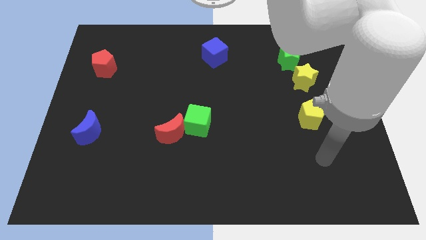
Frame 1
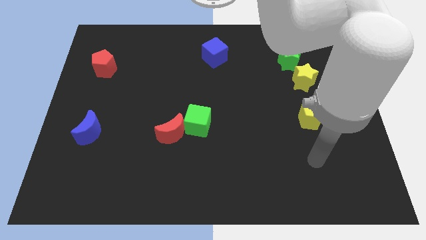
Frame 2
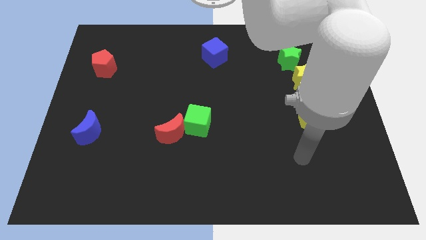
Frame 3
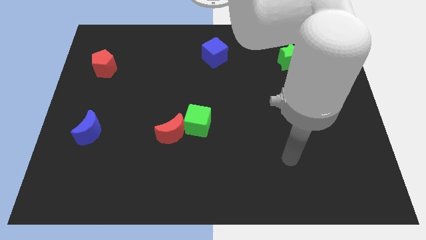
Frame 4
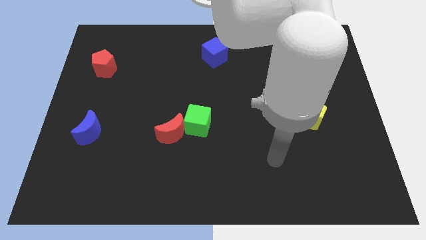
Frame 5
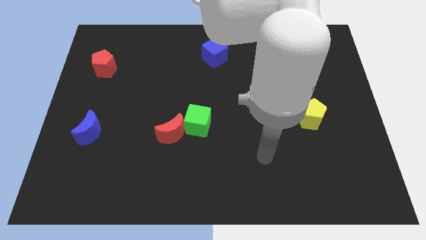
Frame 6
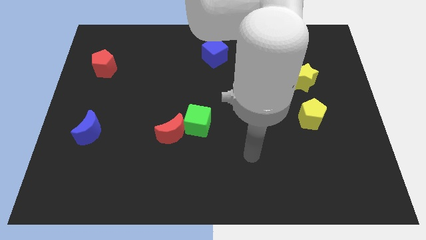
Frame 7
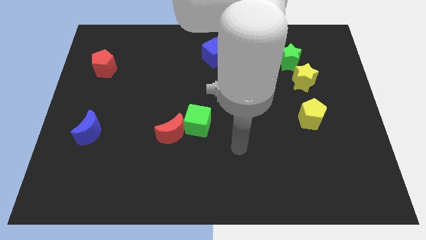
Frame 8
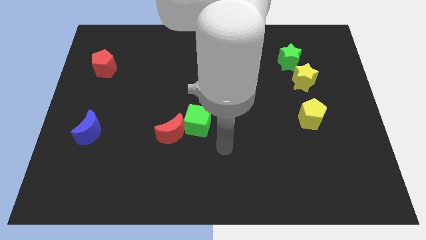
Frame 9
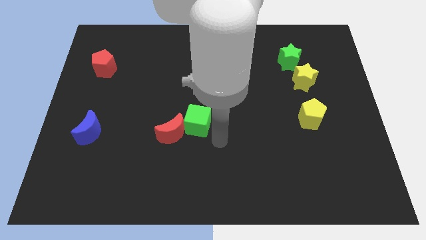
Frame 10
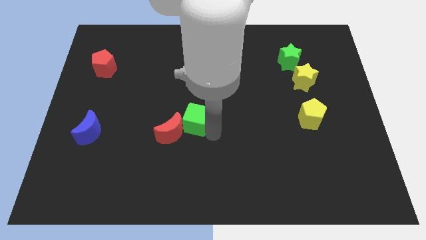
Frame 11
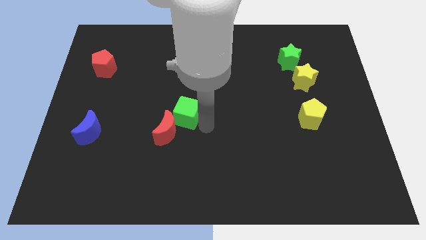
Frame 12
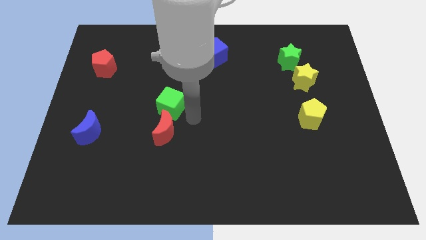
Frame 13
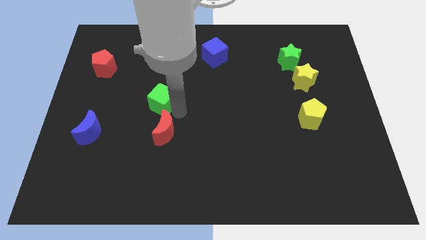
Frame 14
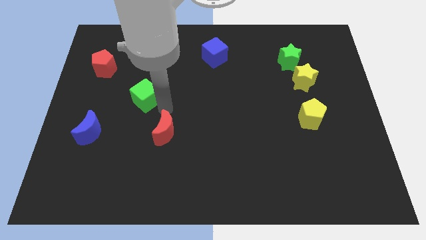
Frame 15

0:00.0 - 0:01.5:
move the red moon away from the green cube

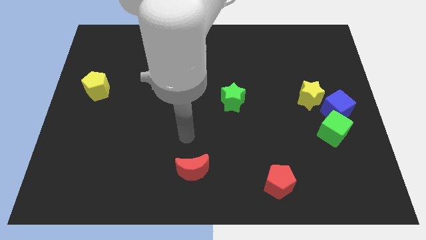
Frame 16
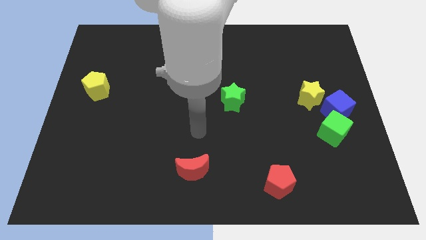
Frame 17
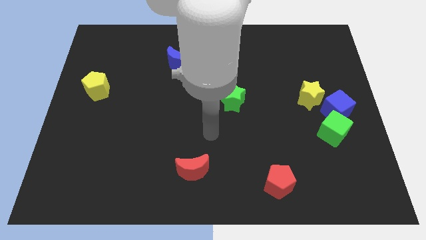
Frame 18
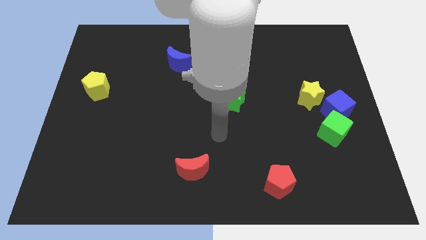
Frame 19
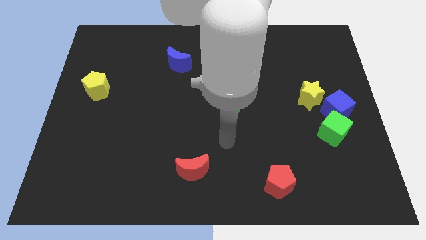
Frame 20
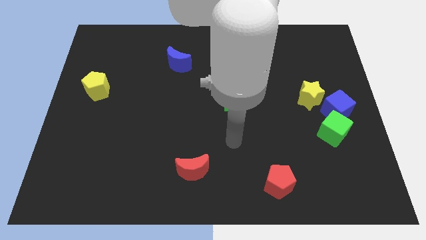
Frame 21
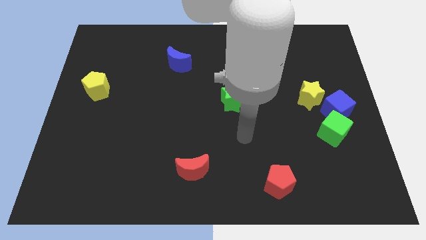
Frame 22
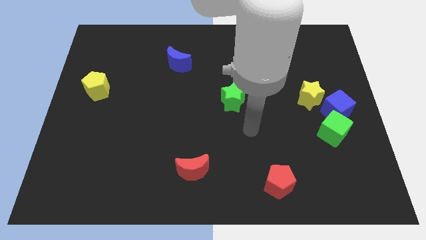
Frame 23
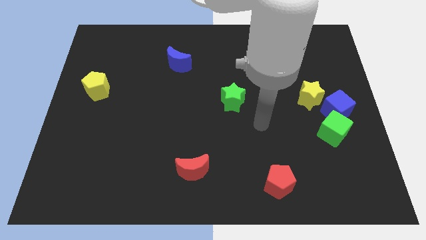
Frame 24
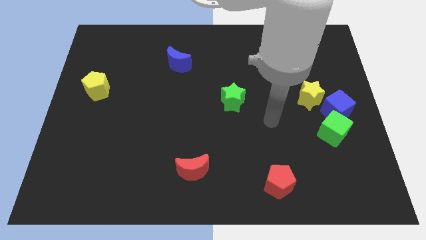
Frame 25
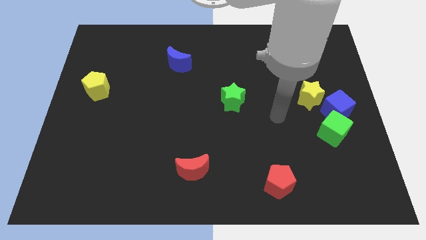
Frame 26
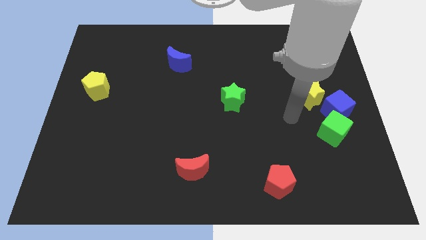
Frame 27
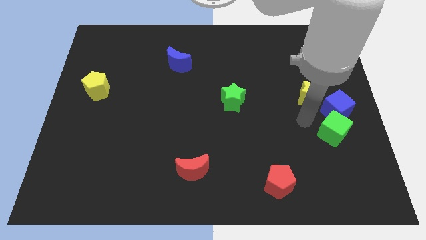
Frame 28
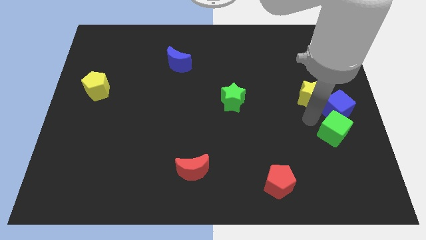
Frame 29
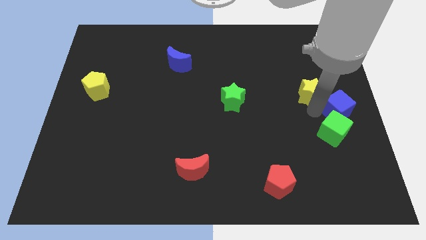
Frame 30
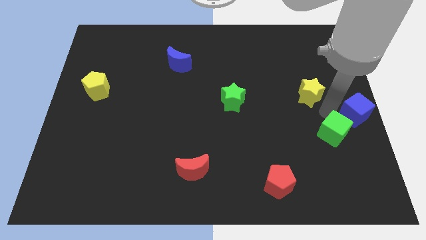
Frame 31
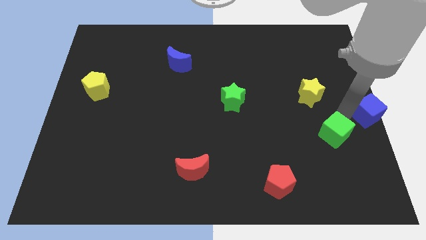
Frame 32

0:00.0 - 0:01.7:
move the green cube away from the blue cube

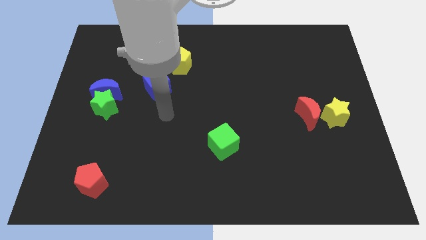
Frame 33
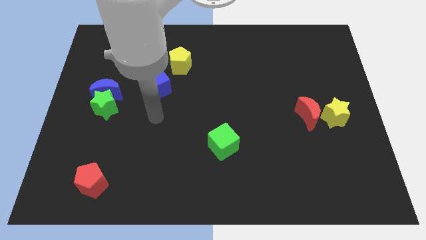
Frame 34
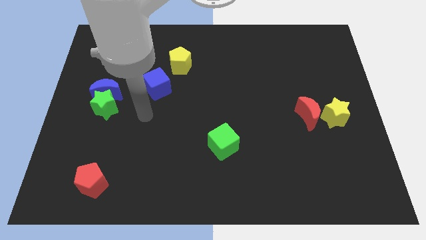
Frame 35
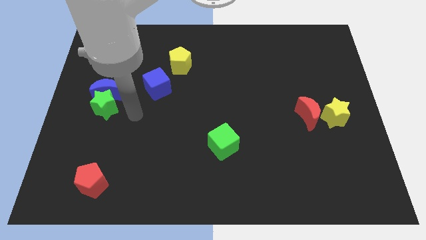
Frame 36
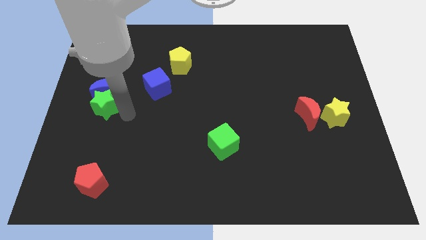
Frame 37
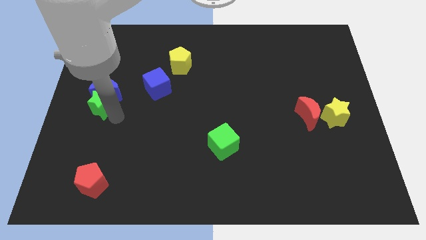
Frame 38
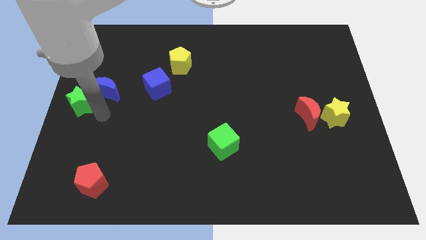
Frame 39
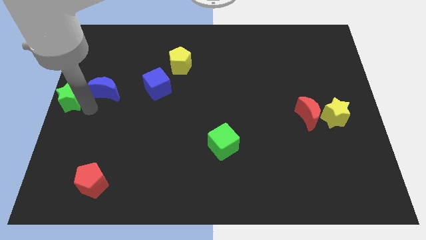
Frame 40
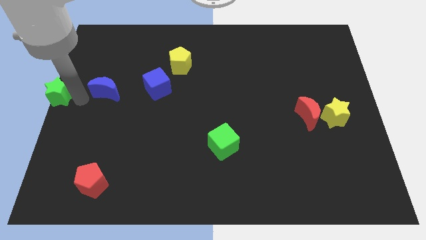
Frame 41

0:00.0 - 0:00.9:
separate the blue moon from the green star

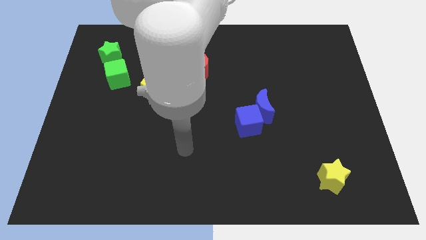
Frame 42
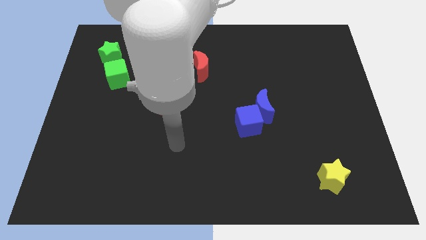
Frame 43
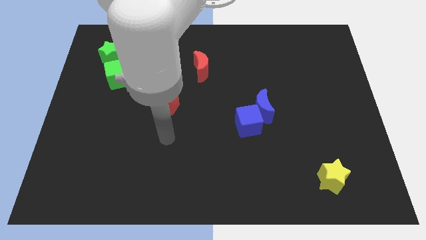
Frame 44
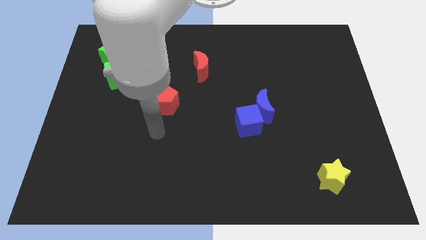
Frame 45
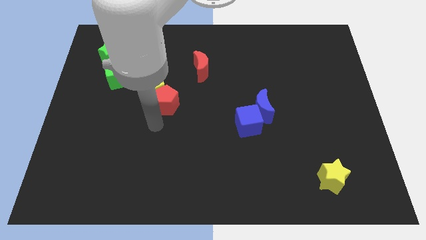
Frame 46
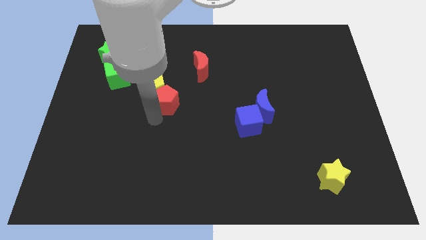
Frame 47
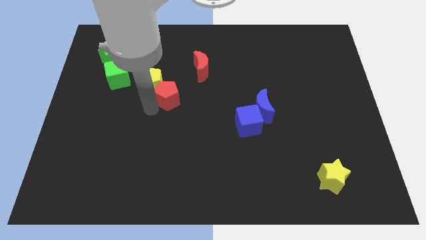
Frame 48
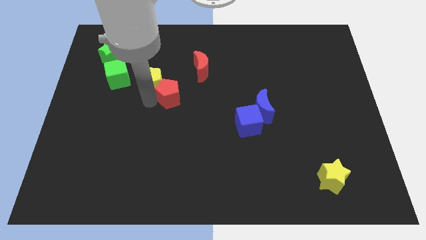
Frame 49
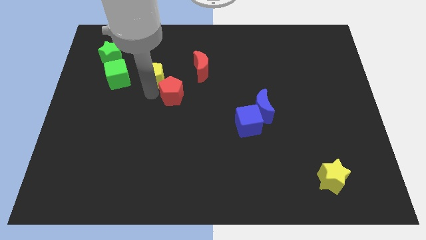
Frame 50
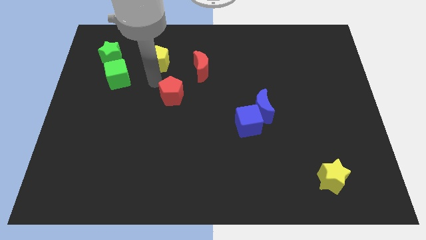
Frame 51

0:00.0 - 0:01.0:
pull the red pentagon apart from the yellow pentagon

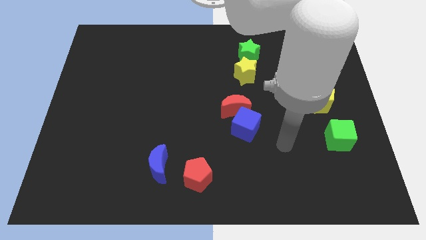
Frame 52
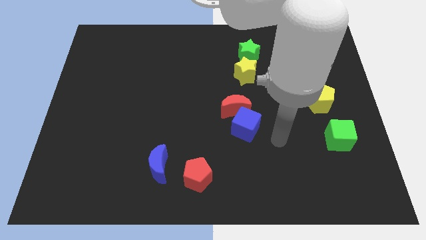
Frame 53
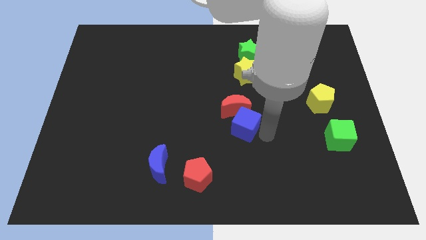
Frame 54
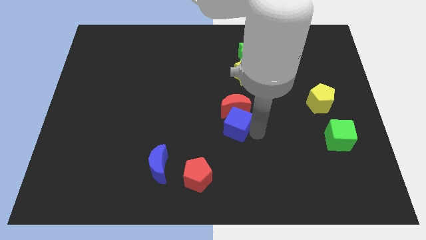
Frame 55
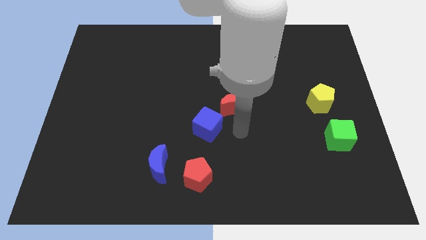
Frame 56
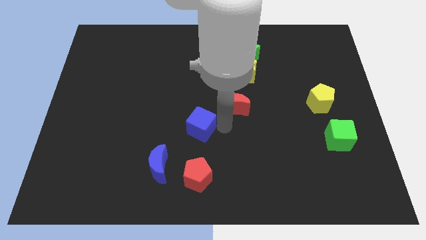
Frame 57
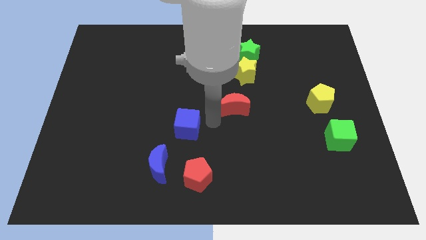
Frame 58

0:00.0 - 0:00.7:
pull the red moon apart from the blue cube

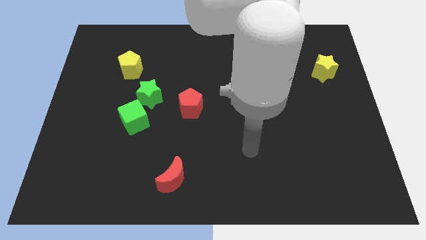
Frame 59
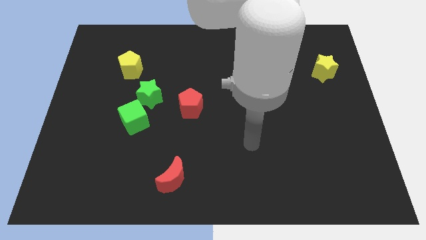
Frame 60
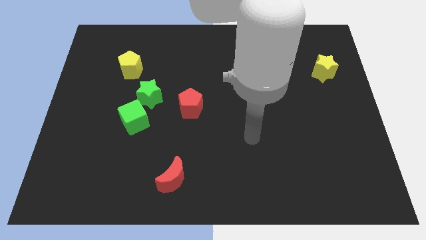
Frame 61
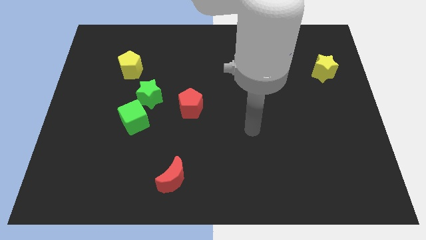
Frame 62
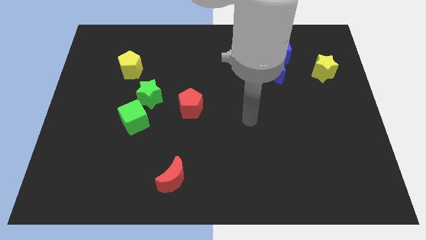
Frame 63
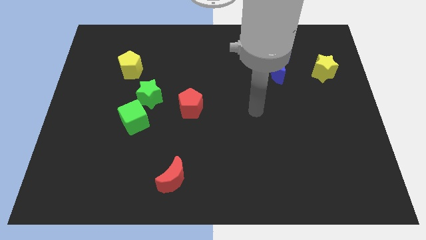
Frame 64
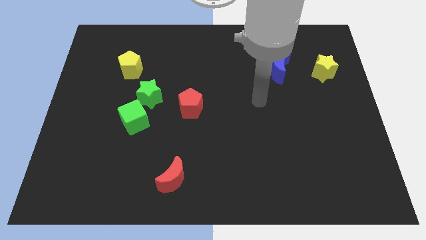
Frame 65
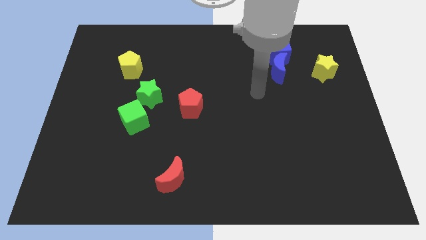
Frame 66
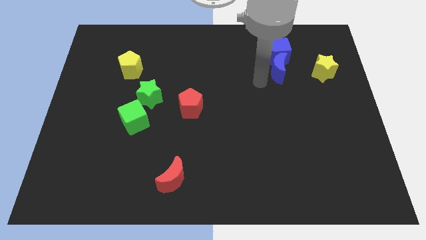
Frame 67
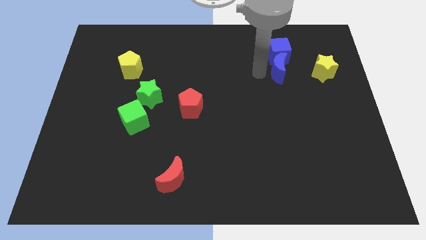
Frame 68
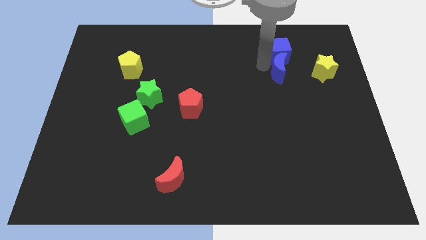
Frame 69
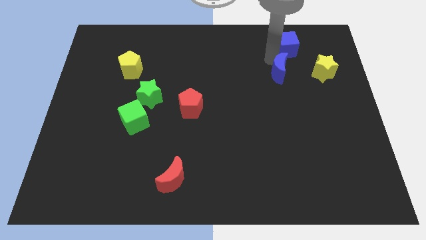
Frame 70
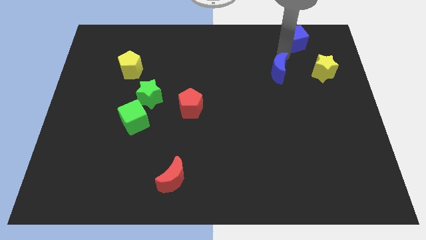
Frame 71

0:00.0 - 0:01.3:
separate the blue moon from the blue cube

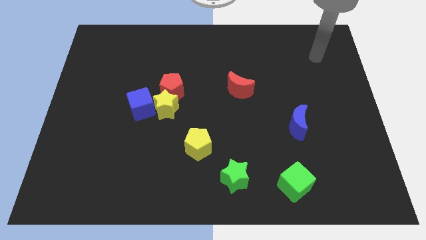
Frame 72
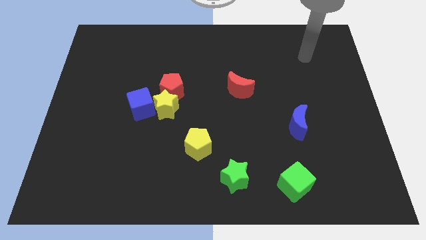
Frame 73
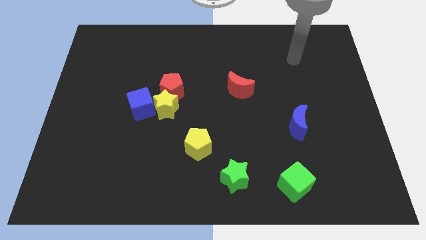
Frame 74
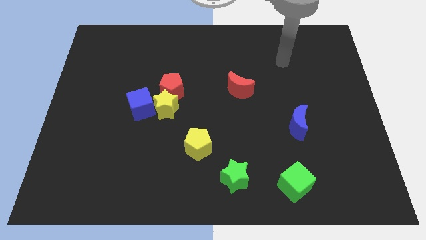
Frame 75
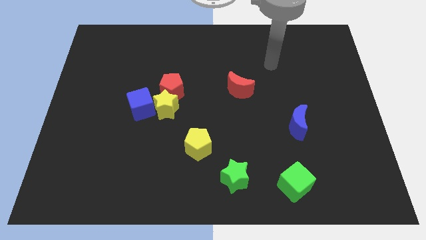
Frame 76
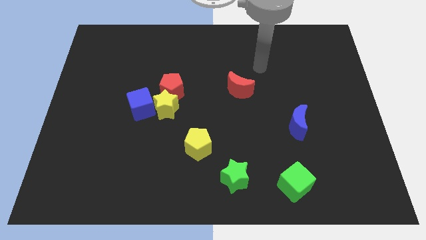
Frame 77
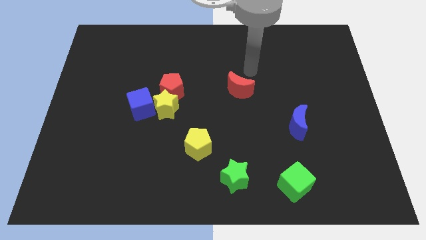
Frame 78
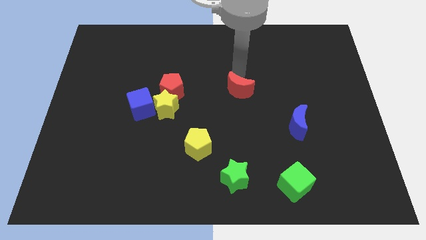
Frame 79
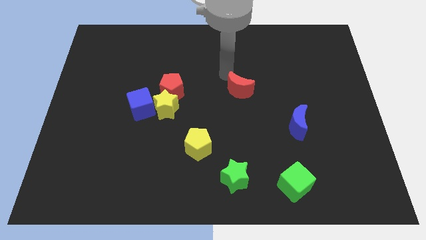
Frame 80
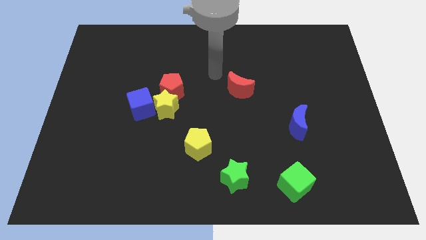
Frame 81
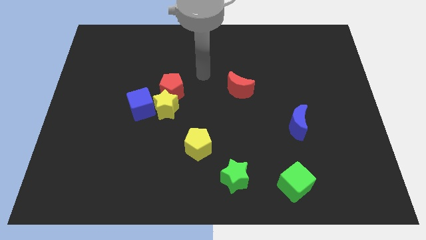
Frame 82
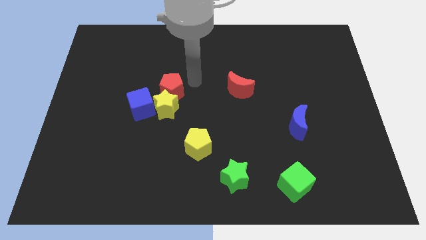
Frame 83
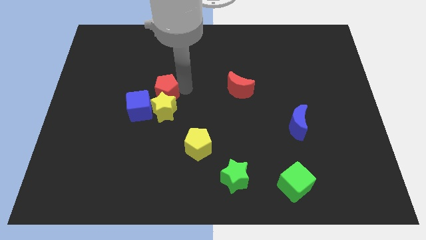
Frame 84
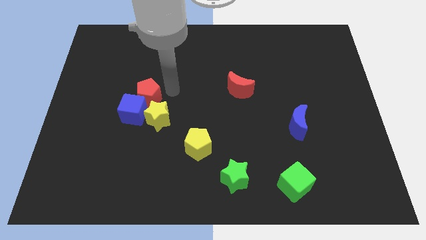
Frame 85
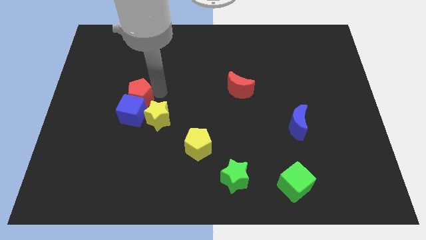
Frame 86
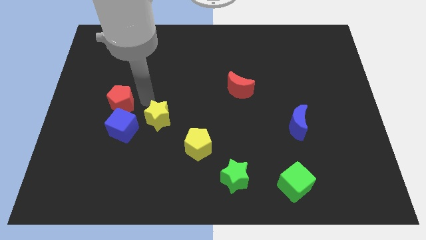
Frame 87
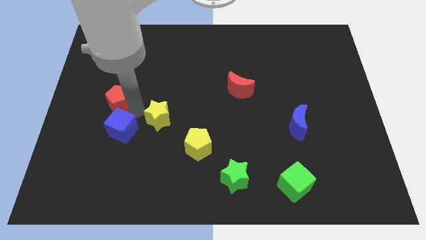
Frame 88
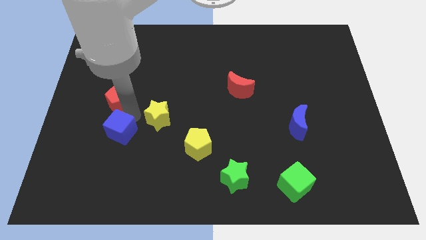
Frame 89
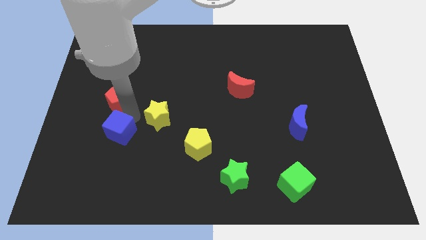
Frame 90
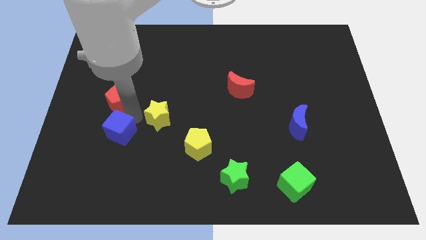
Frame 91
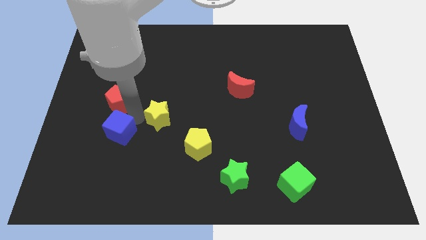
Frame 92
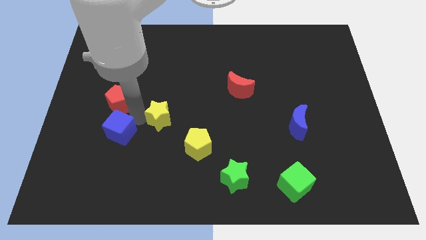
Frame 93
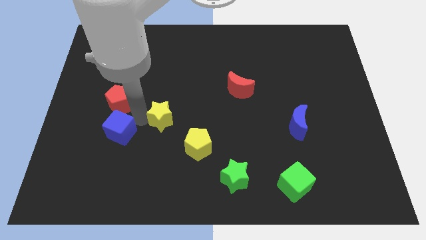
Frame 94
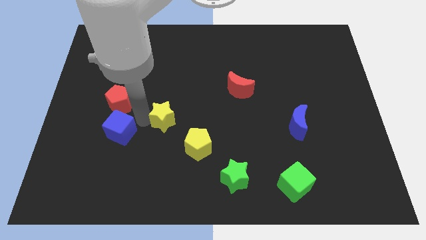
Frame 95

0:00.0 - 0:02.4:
pull the yellow star apart from the red pentagon and blue cube
